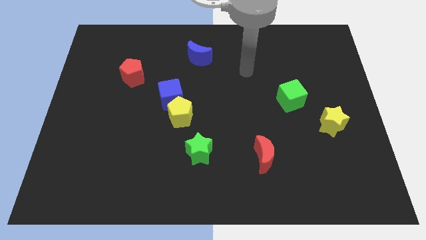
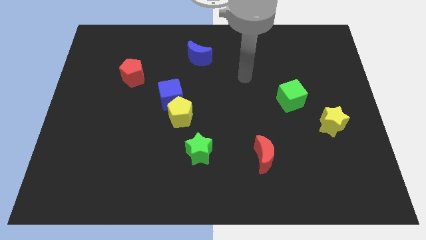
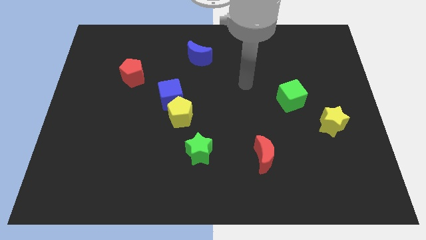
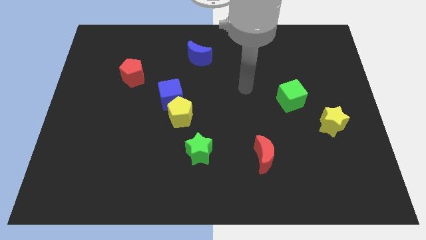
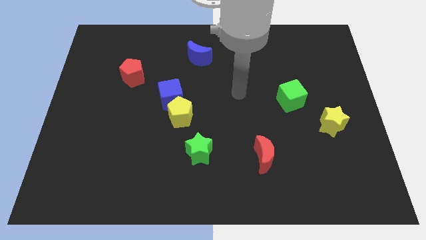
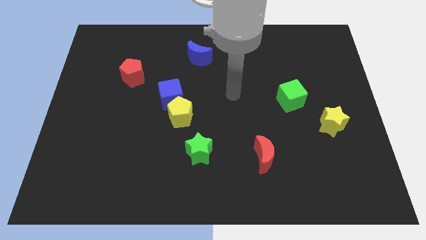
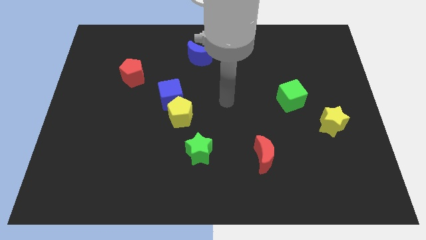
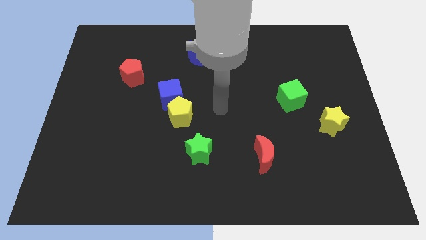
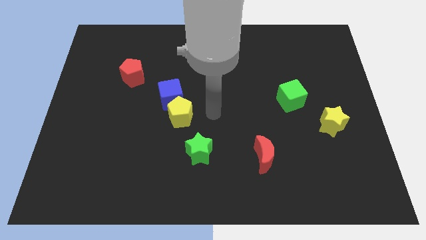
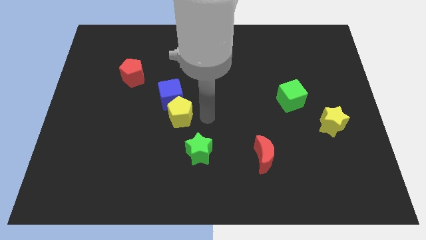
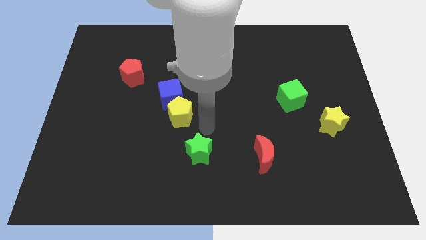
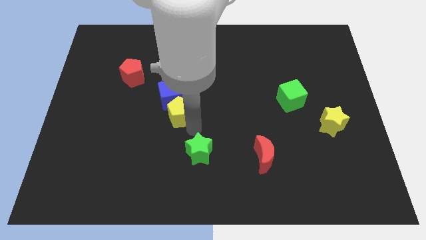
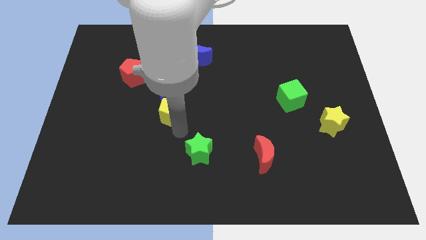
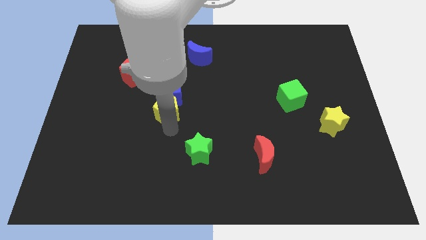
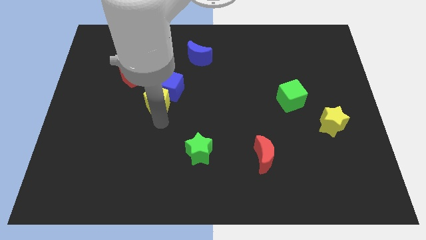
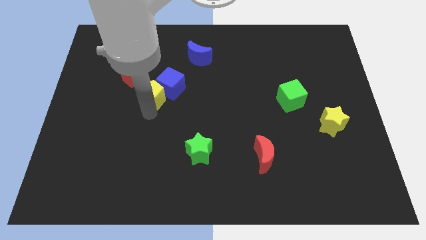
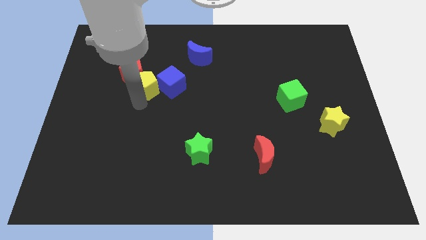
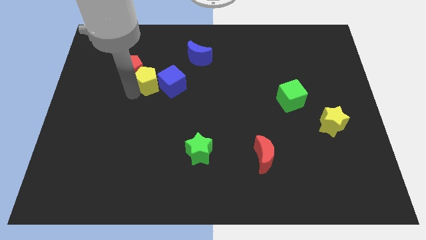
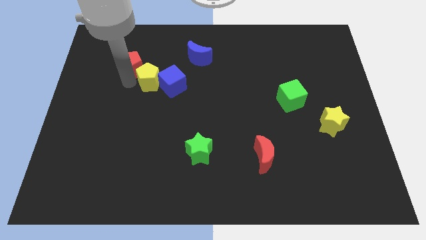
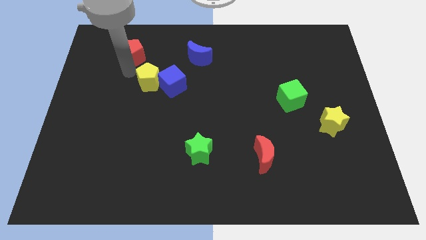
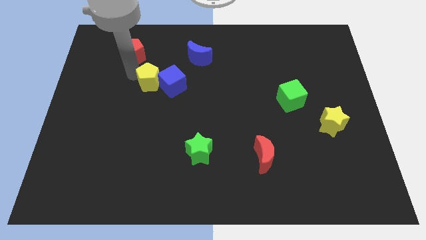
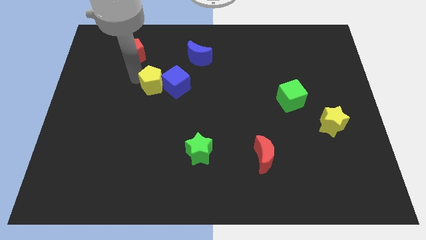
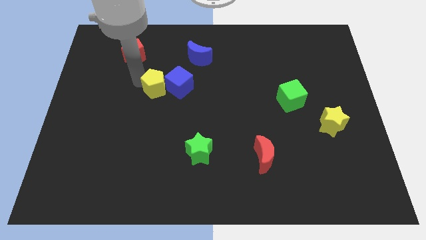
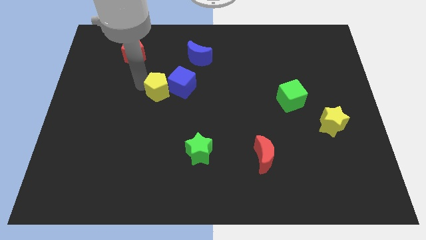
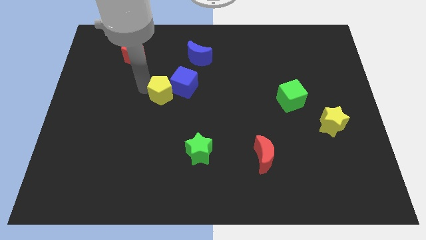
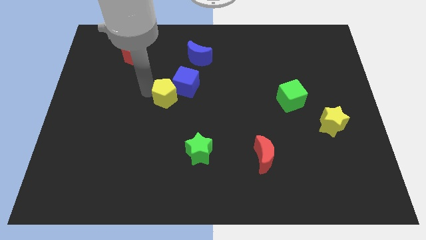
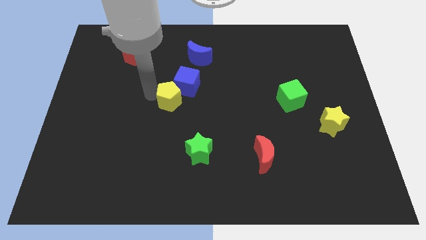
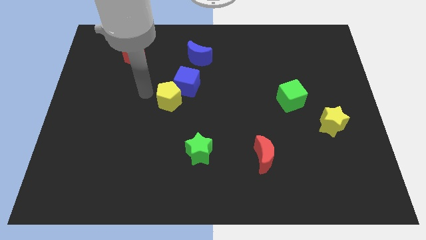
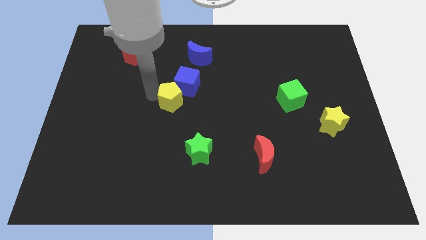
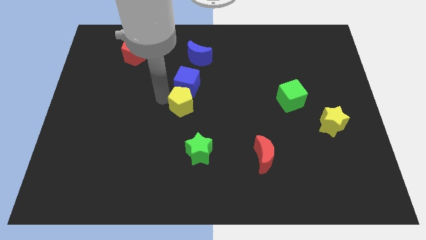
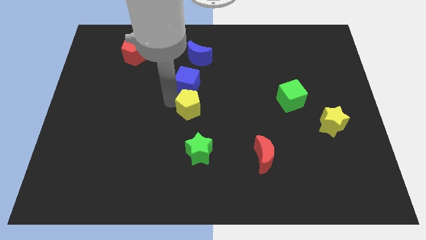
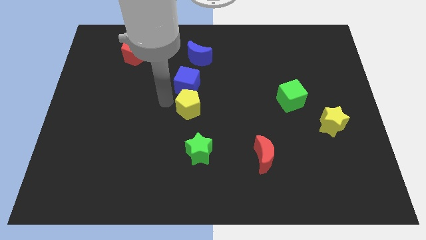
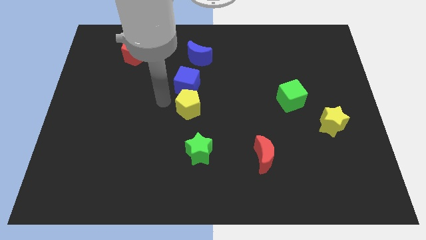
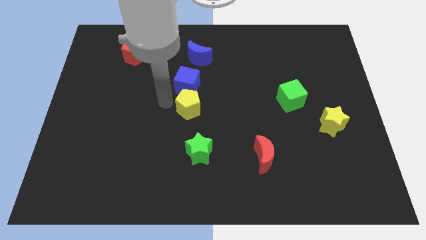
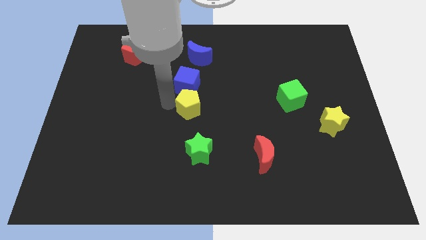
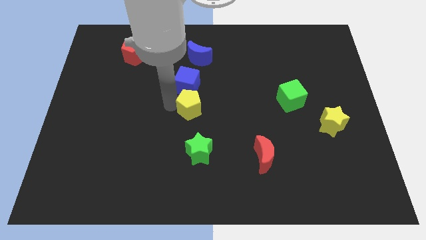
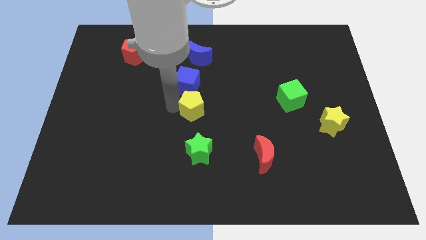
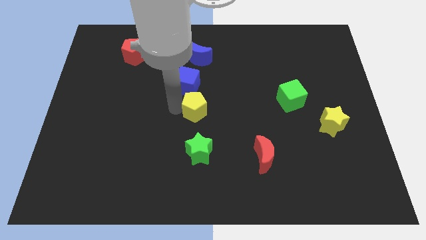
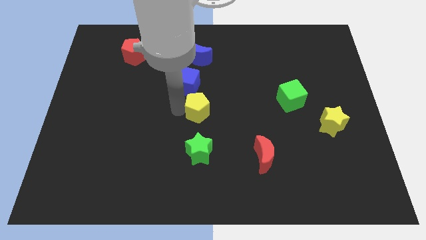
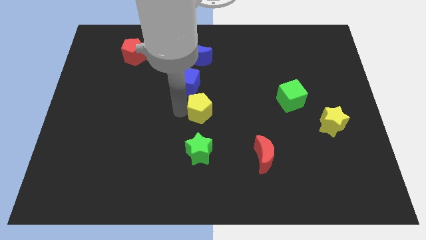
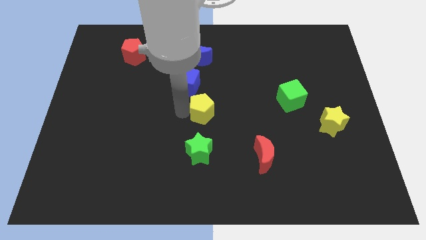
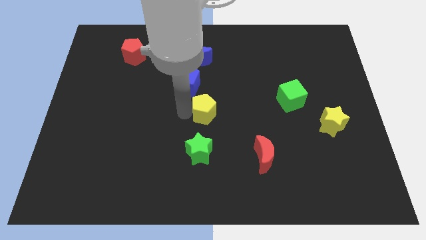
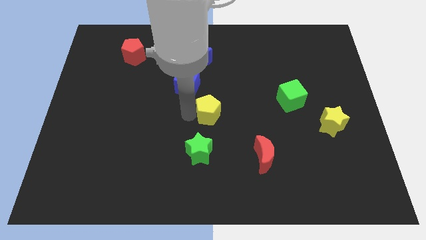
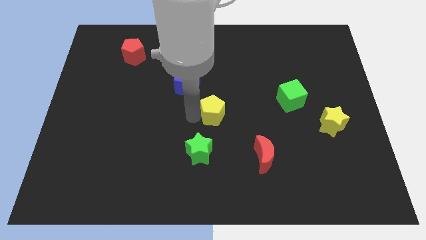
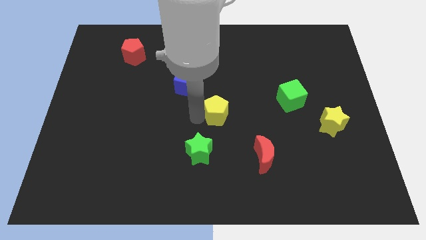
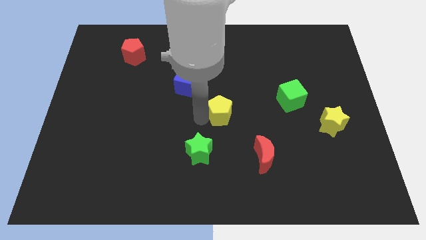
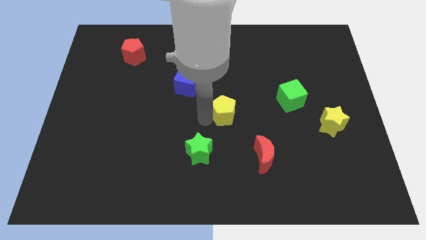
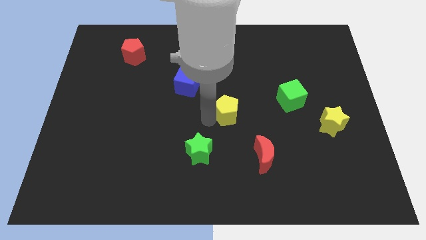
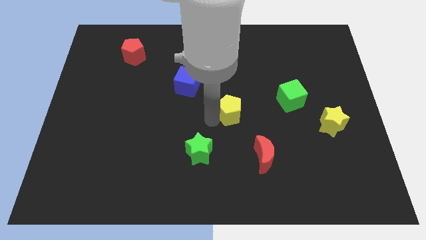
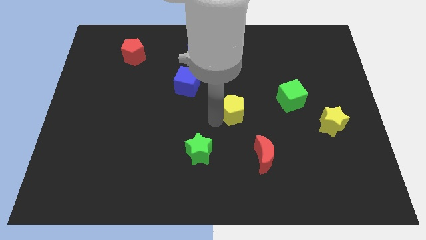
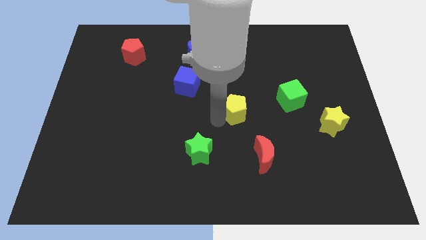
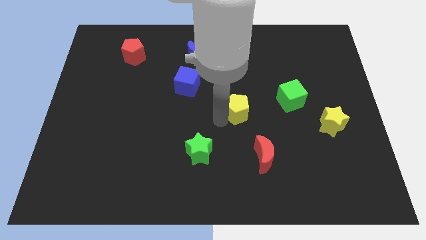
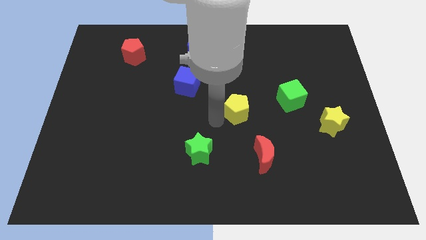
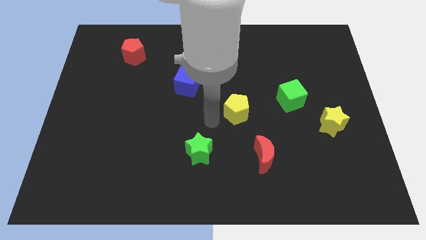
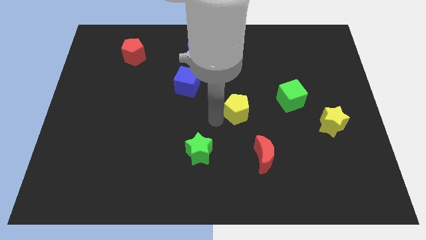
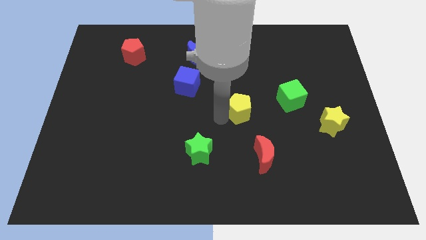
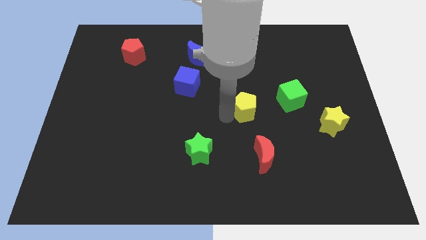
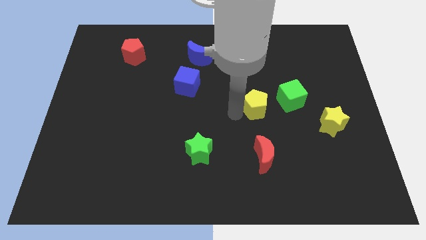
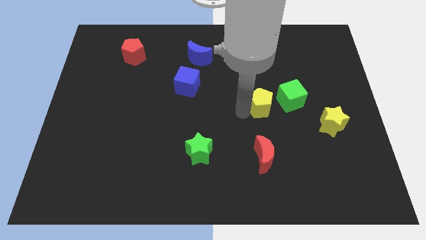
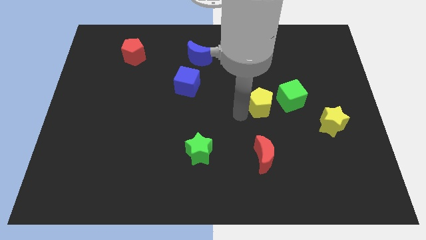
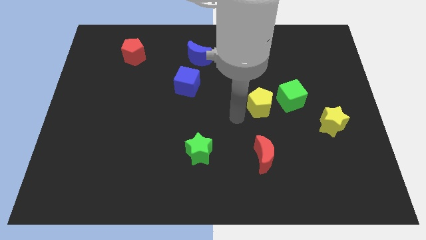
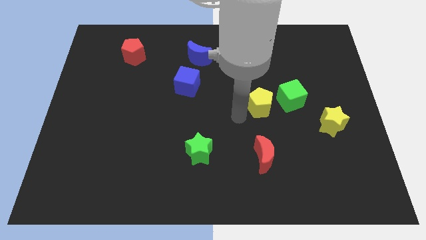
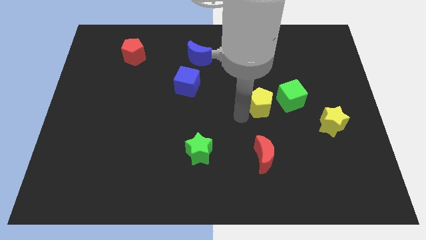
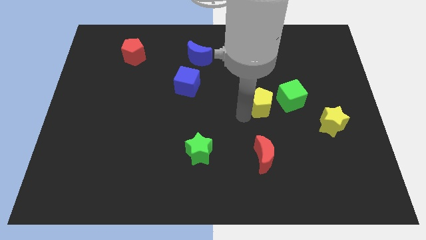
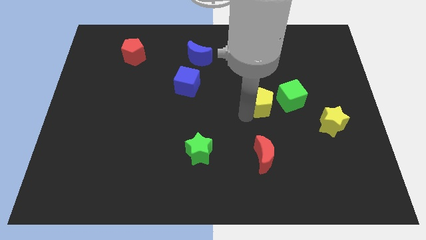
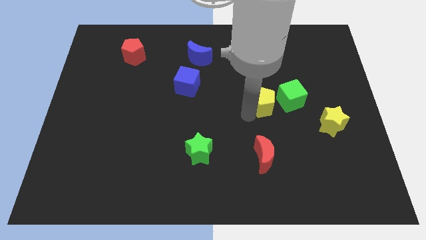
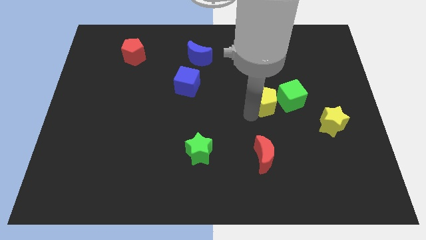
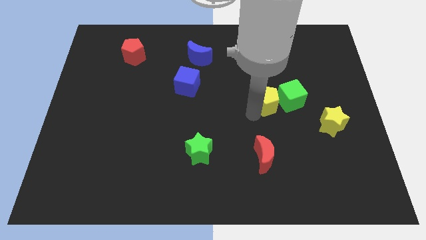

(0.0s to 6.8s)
put the yellow pentagon next to the green cube
